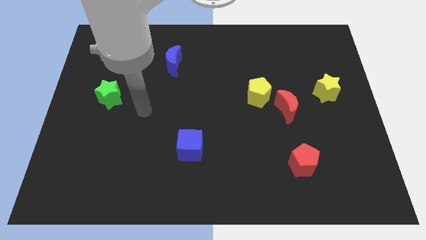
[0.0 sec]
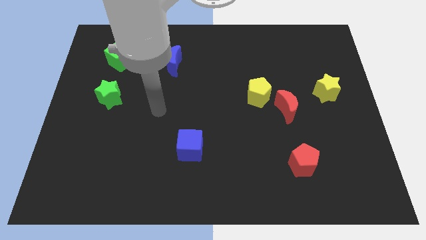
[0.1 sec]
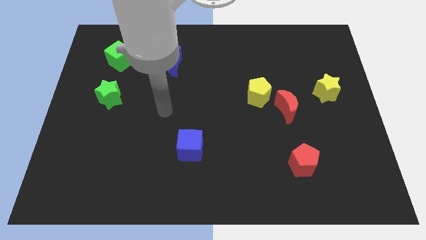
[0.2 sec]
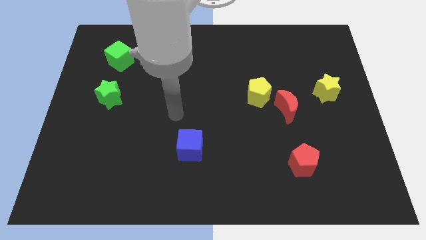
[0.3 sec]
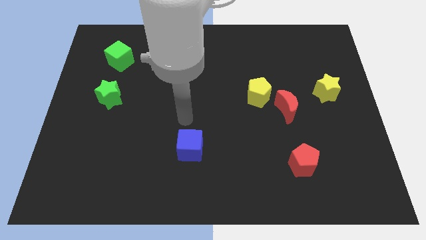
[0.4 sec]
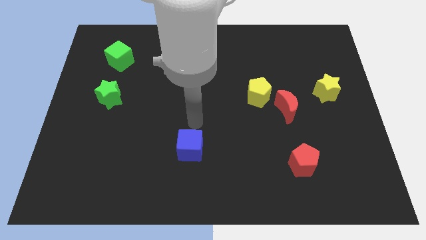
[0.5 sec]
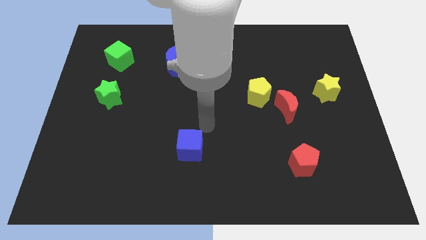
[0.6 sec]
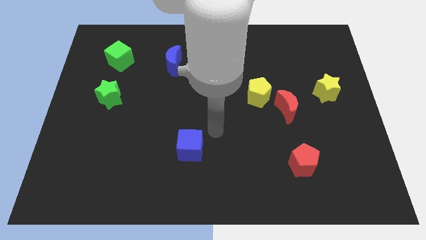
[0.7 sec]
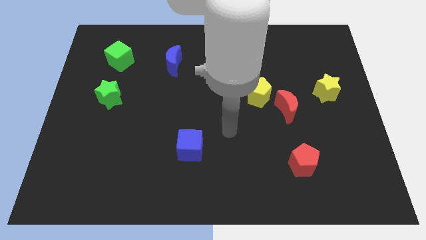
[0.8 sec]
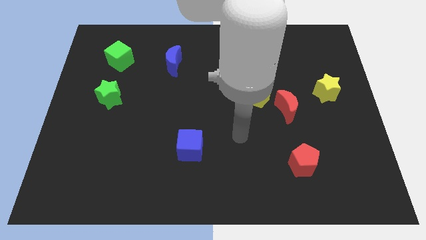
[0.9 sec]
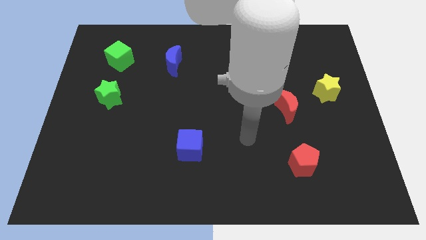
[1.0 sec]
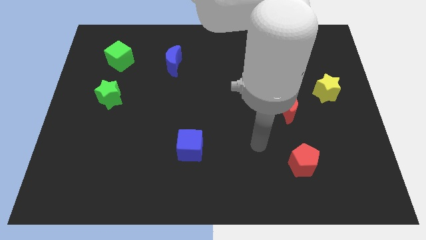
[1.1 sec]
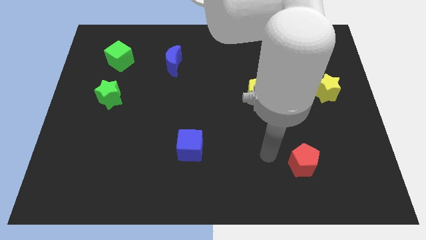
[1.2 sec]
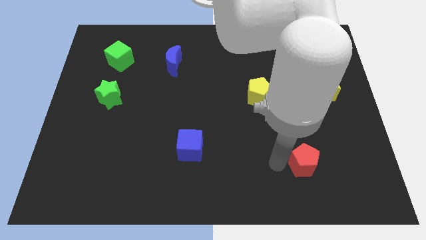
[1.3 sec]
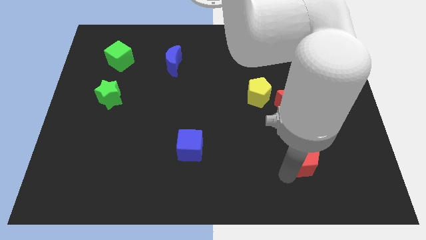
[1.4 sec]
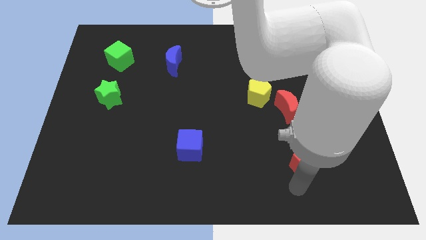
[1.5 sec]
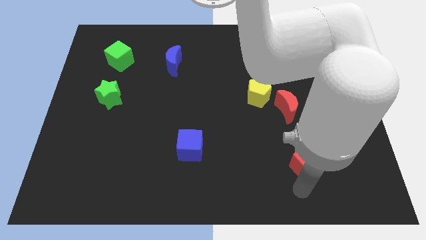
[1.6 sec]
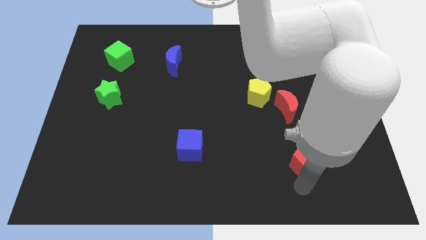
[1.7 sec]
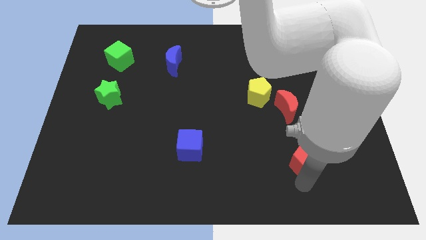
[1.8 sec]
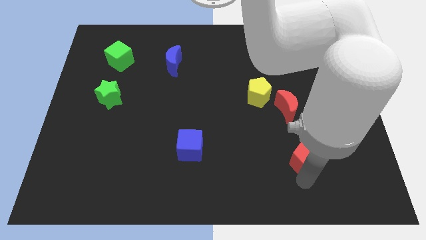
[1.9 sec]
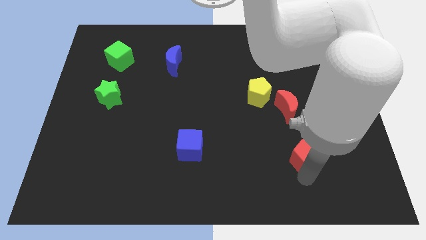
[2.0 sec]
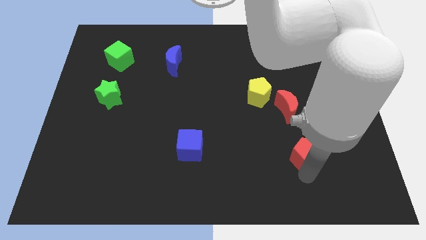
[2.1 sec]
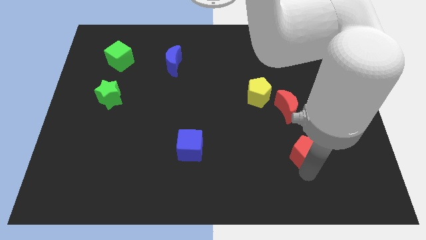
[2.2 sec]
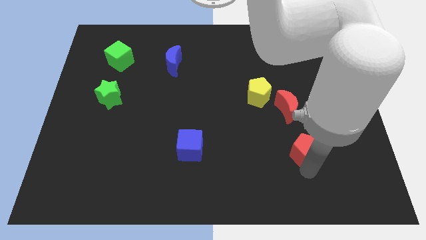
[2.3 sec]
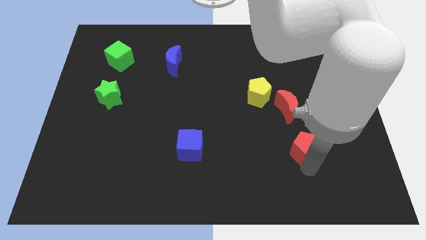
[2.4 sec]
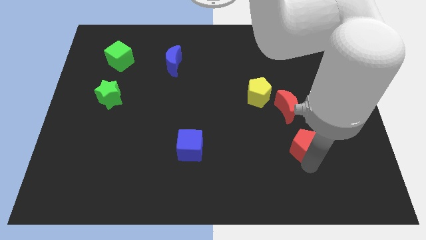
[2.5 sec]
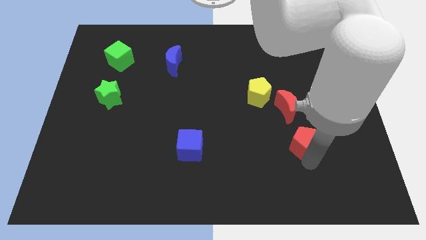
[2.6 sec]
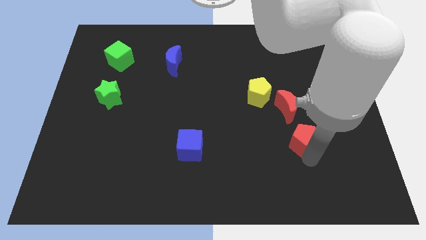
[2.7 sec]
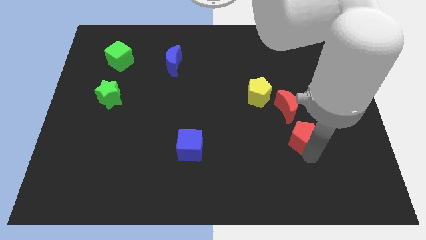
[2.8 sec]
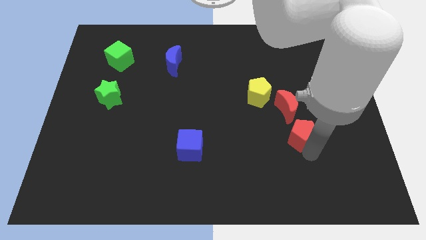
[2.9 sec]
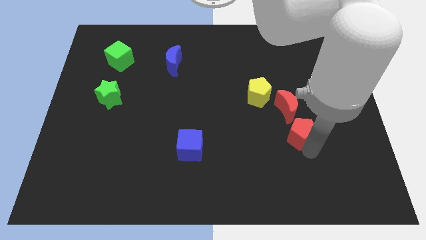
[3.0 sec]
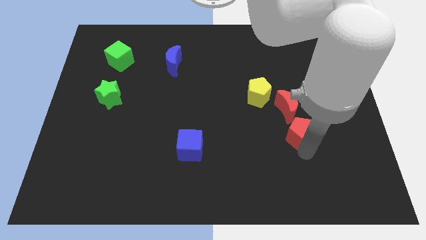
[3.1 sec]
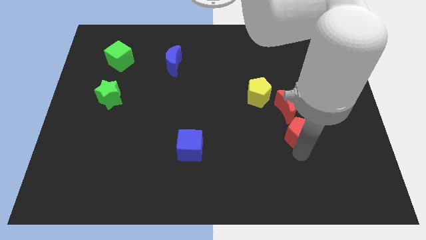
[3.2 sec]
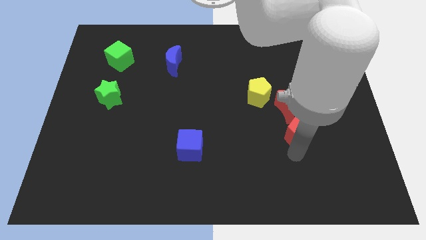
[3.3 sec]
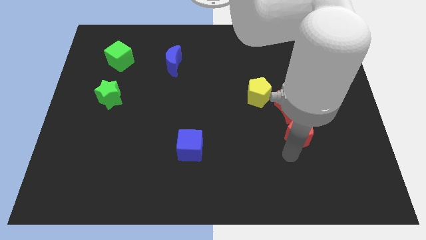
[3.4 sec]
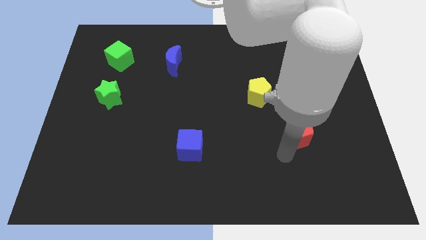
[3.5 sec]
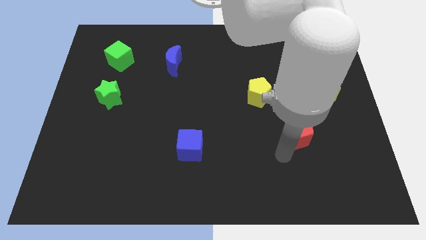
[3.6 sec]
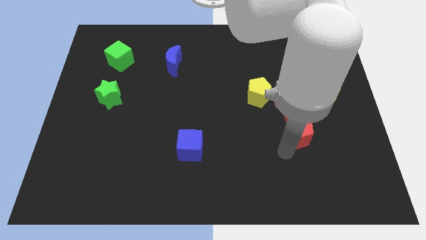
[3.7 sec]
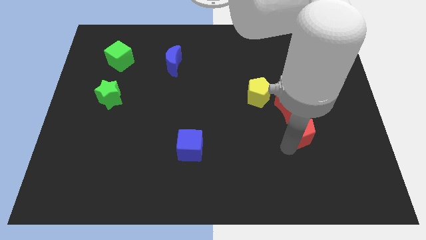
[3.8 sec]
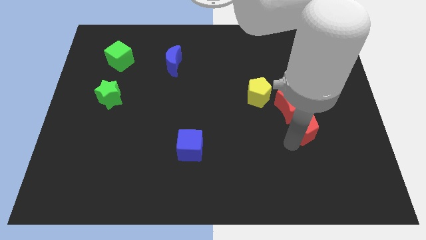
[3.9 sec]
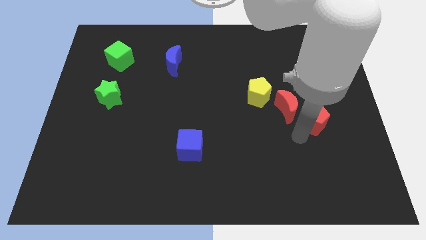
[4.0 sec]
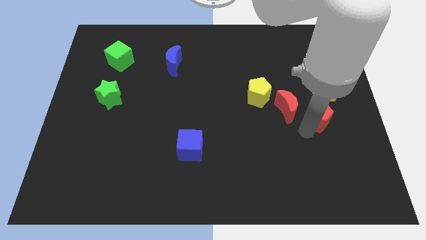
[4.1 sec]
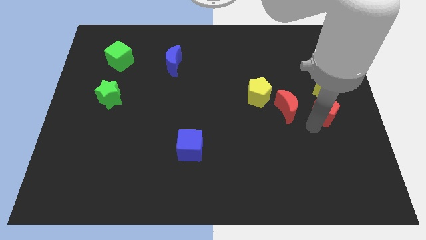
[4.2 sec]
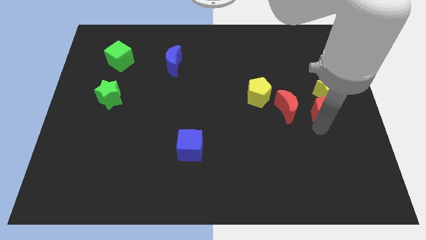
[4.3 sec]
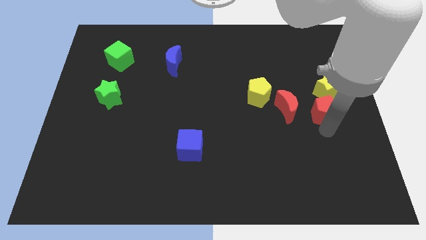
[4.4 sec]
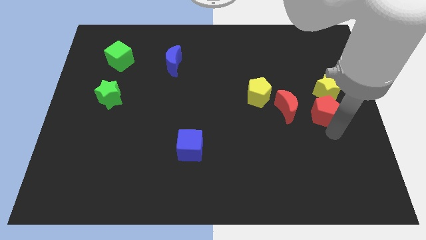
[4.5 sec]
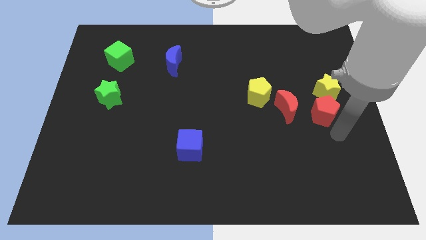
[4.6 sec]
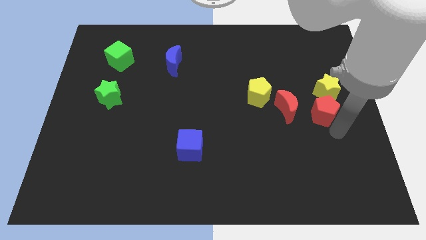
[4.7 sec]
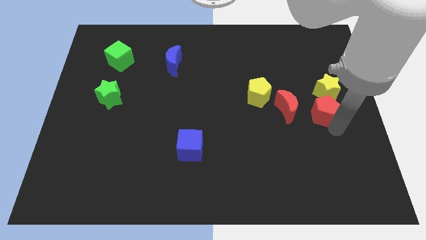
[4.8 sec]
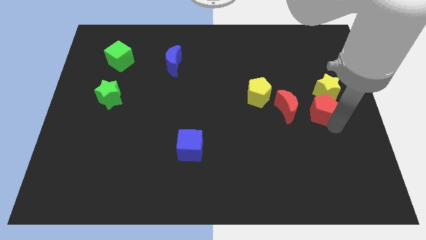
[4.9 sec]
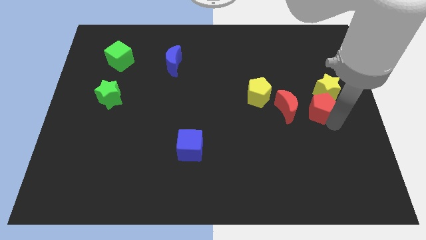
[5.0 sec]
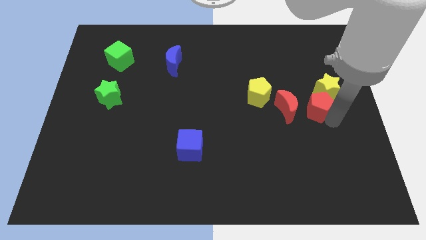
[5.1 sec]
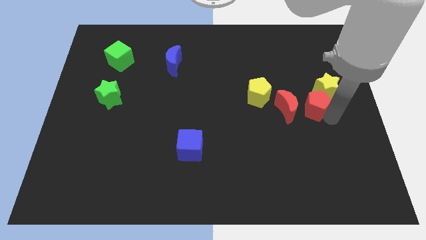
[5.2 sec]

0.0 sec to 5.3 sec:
push the red pentagon diagonally up and to the right of the red moon

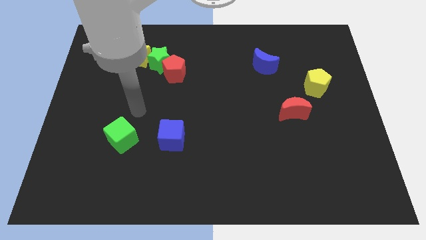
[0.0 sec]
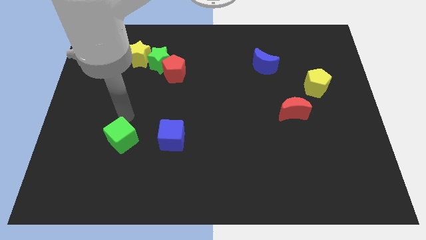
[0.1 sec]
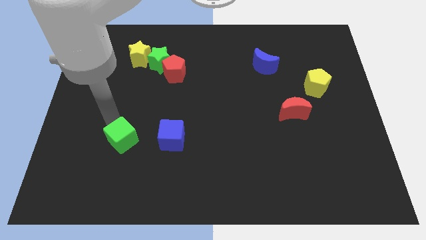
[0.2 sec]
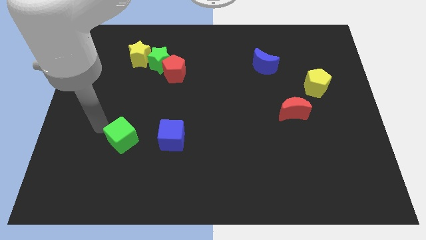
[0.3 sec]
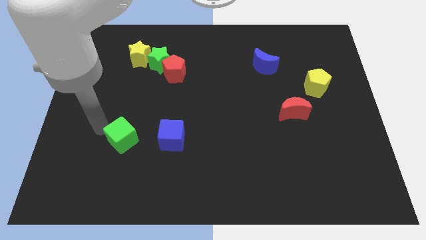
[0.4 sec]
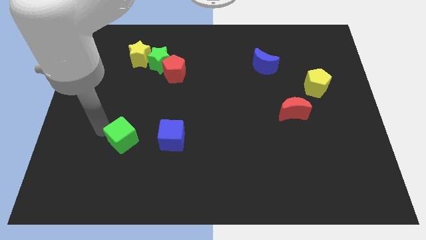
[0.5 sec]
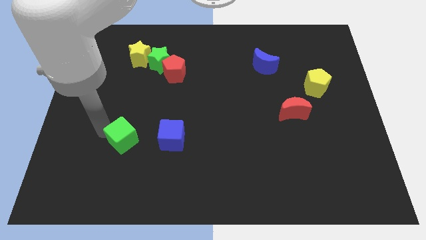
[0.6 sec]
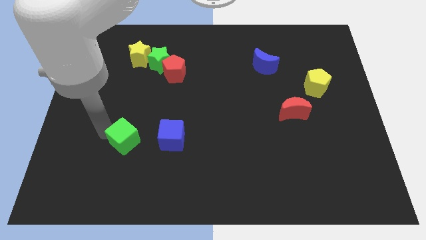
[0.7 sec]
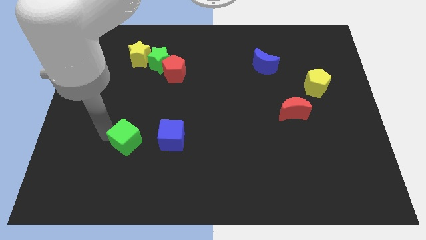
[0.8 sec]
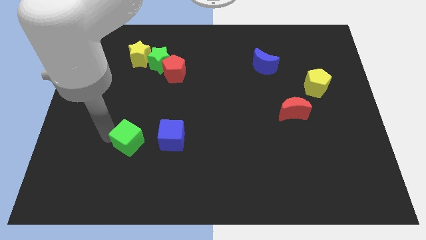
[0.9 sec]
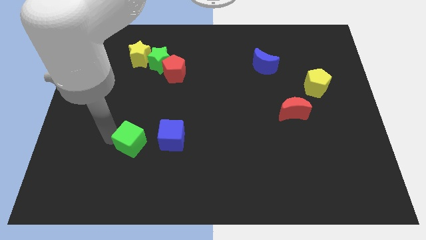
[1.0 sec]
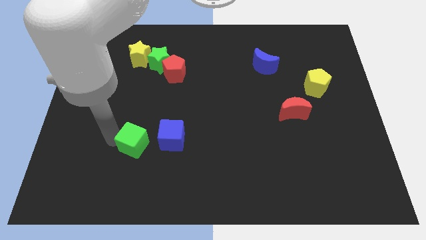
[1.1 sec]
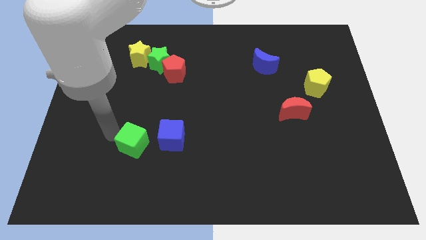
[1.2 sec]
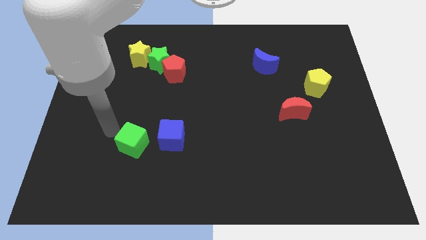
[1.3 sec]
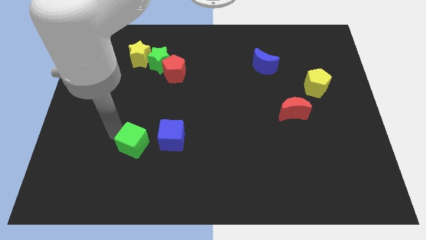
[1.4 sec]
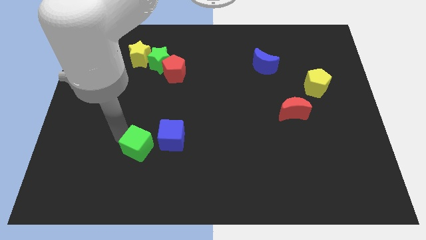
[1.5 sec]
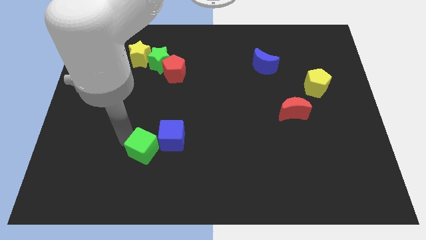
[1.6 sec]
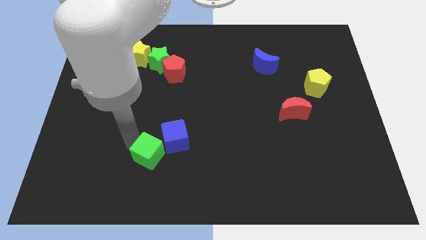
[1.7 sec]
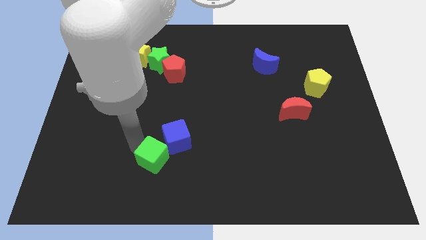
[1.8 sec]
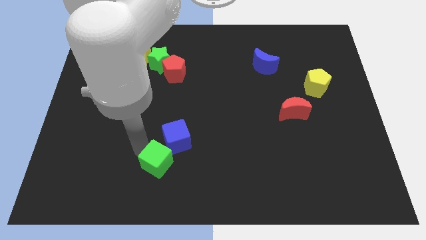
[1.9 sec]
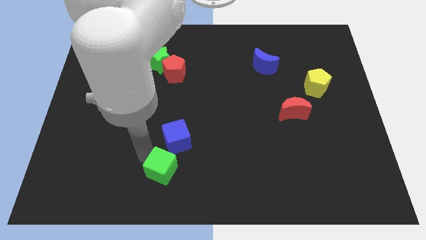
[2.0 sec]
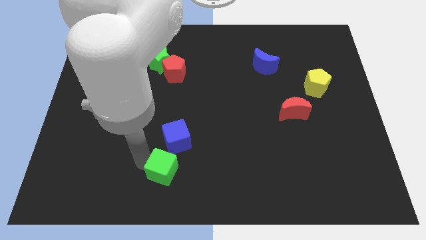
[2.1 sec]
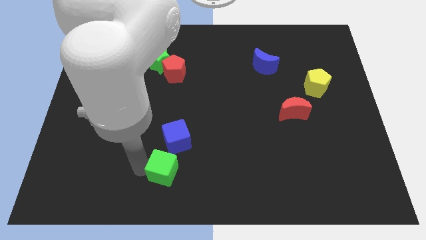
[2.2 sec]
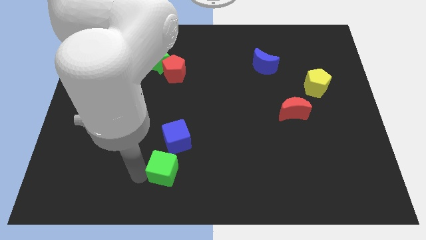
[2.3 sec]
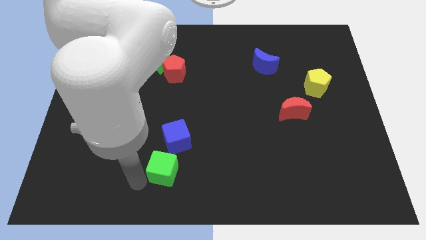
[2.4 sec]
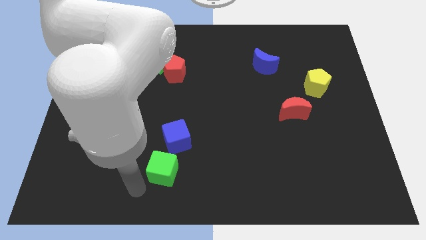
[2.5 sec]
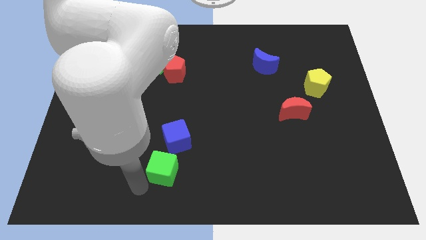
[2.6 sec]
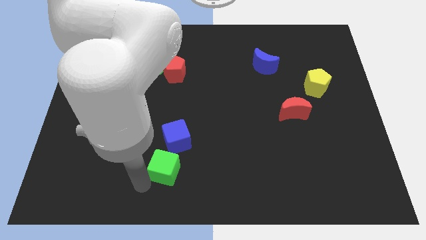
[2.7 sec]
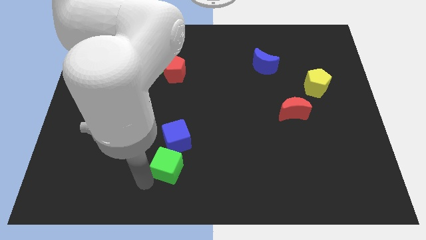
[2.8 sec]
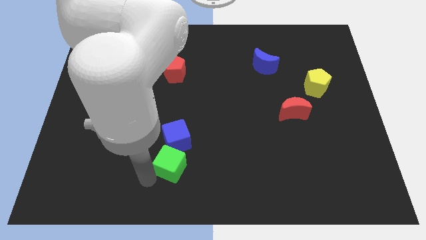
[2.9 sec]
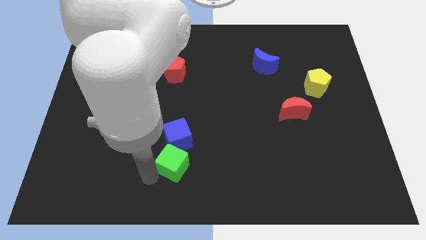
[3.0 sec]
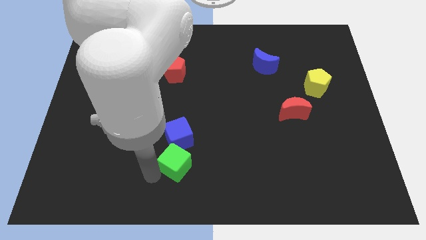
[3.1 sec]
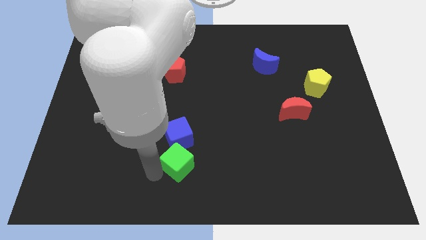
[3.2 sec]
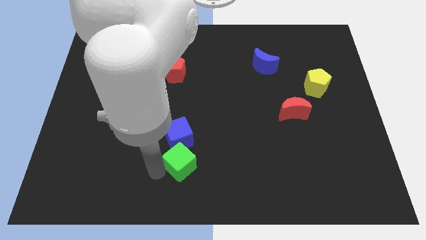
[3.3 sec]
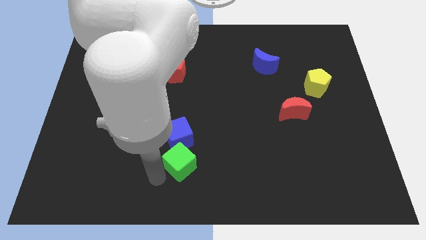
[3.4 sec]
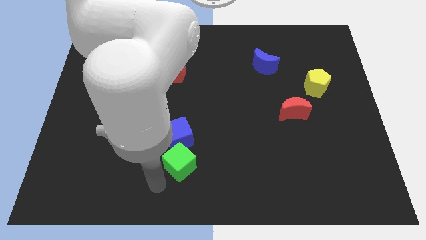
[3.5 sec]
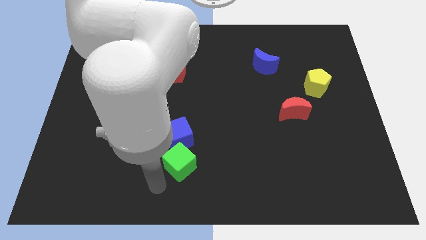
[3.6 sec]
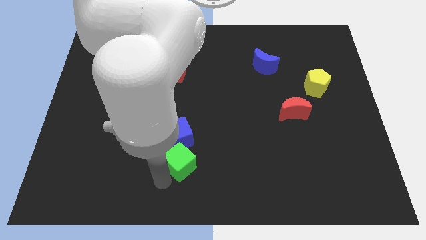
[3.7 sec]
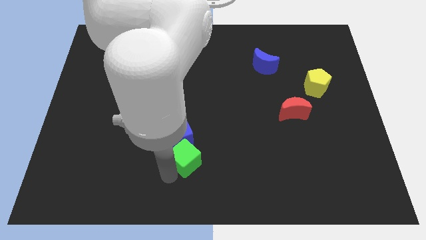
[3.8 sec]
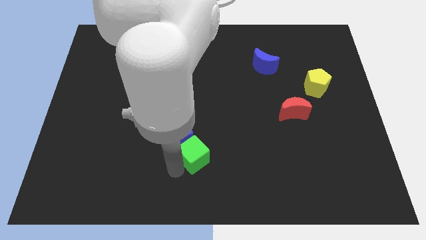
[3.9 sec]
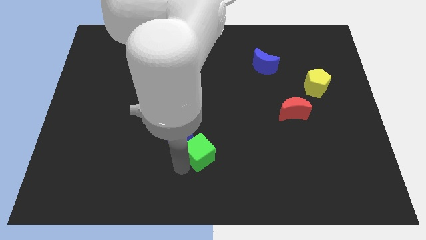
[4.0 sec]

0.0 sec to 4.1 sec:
move the green cube right of the blue cube
